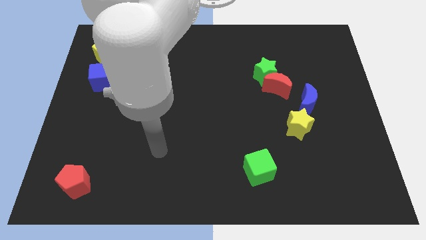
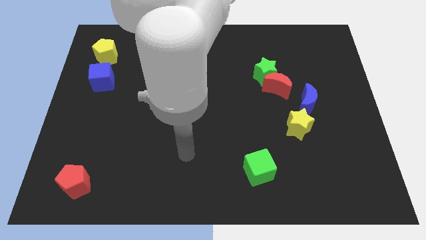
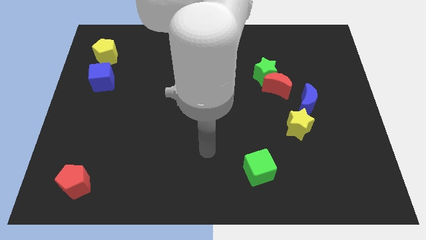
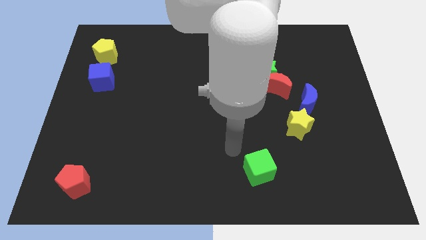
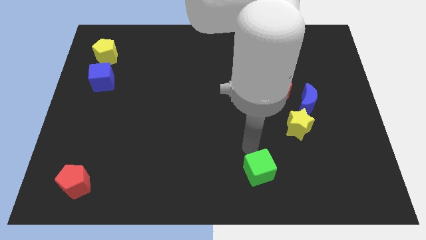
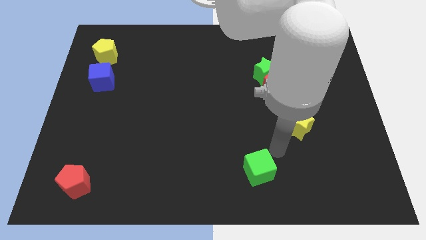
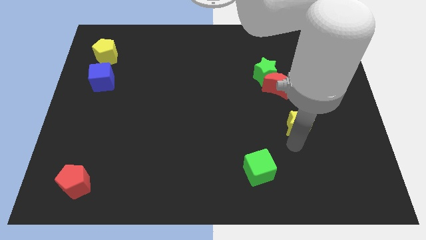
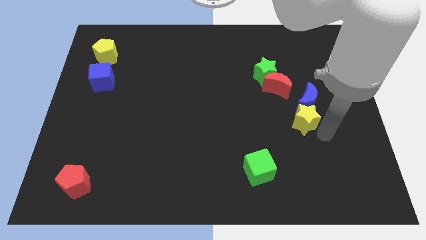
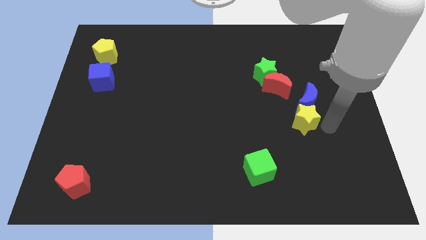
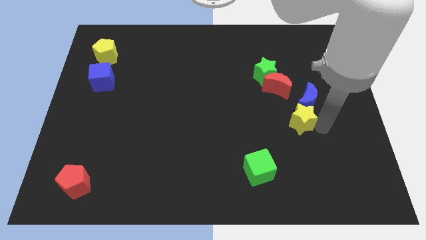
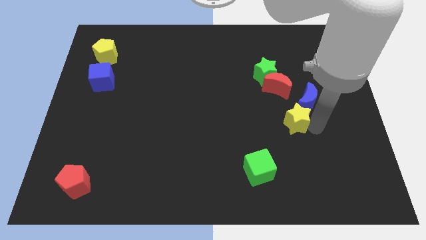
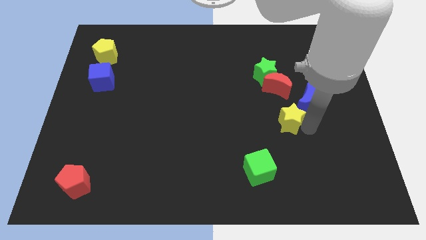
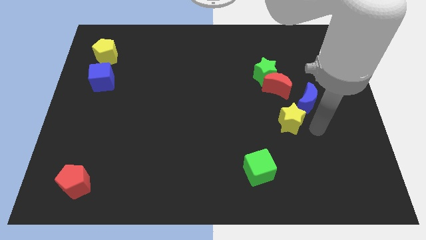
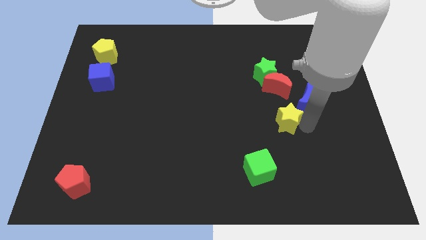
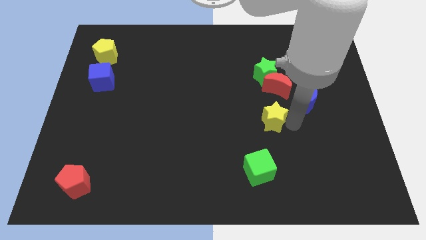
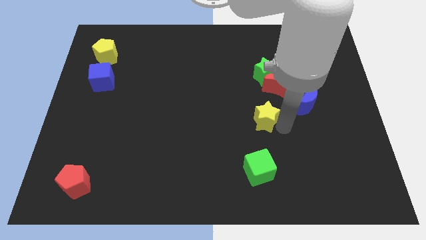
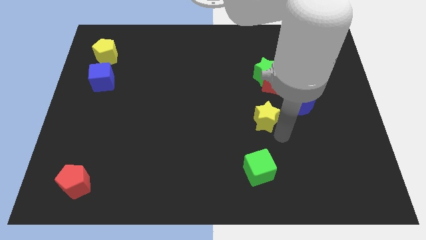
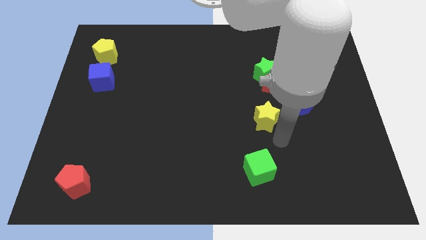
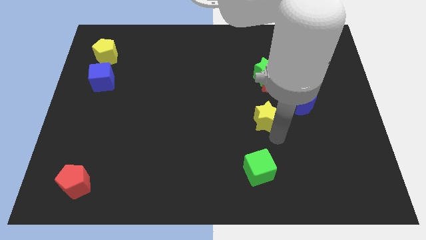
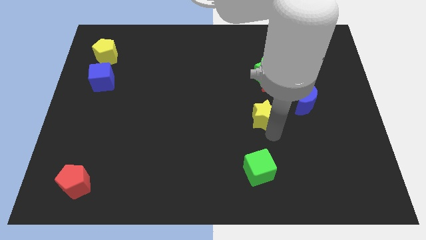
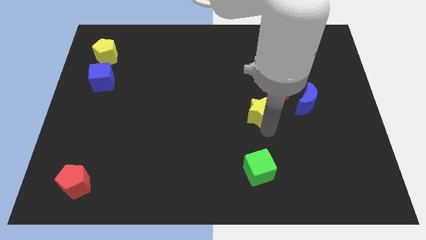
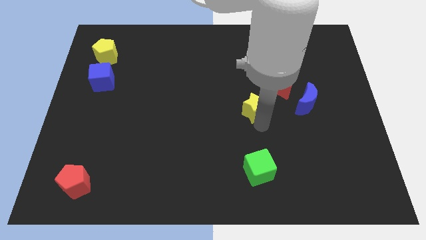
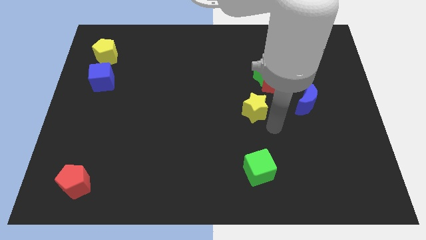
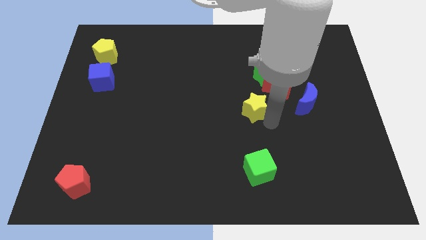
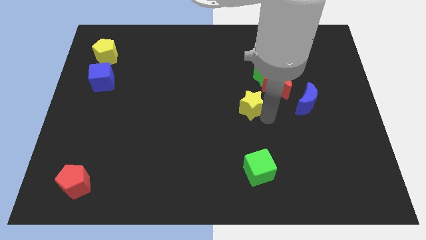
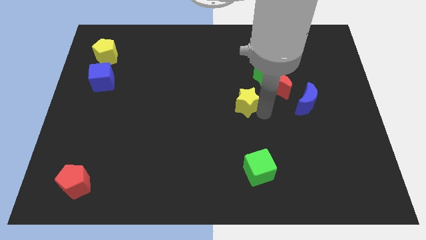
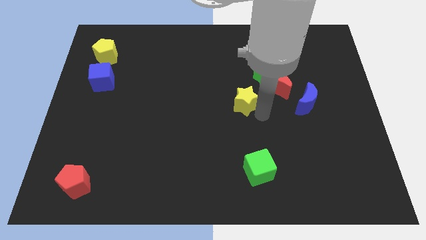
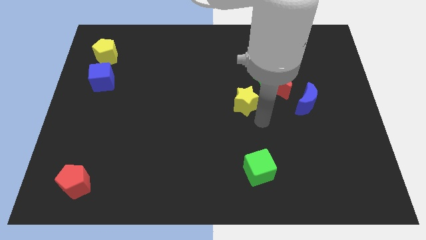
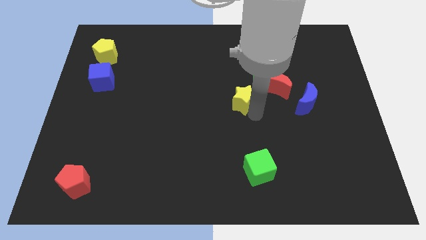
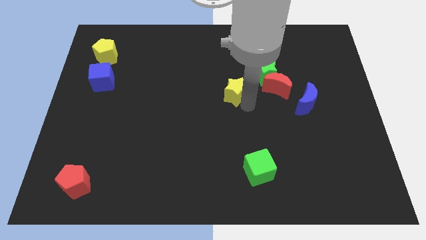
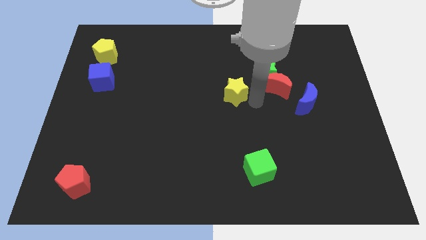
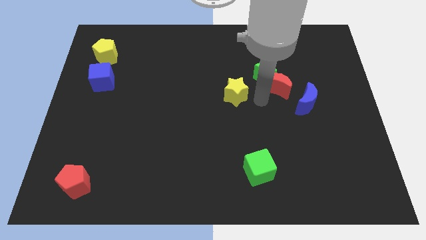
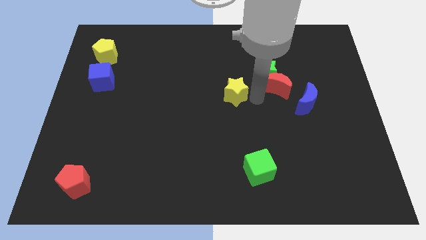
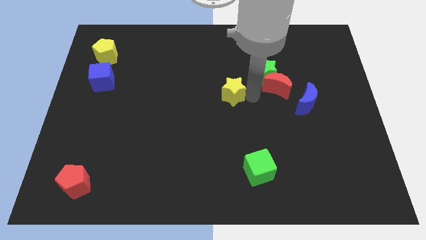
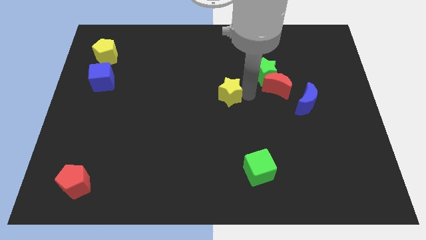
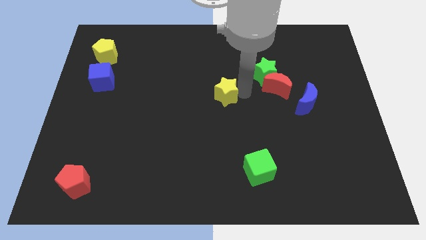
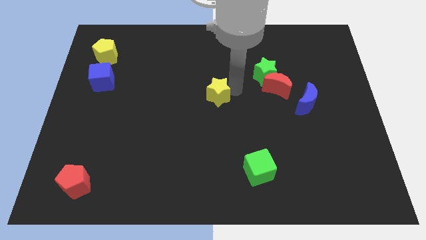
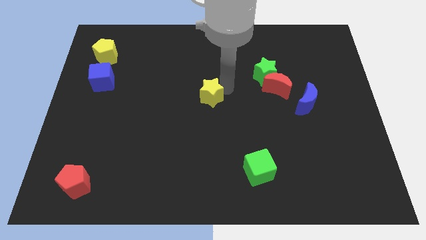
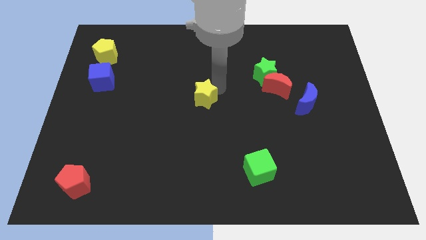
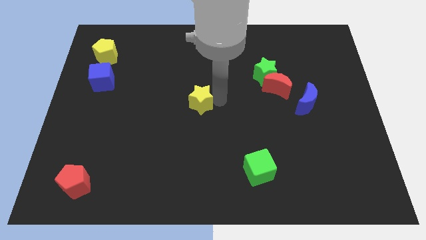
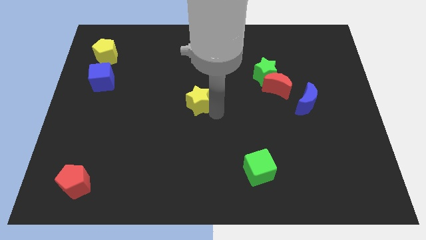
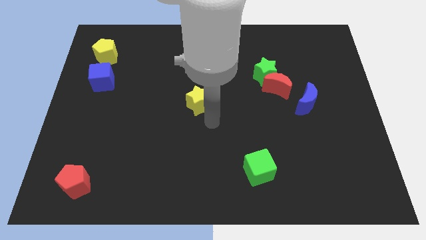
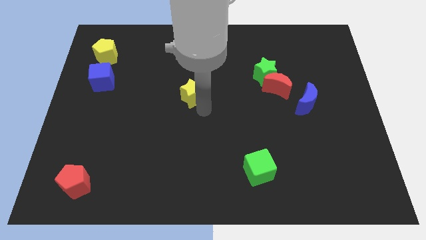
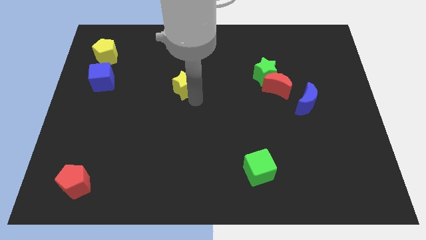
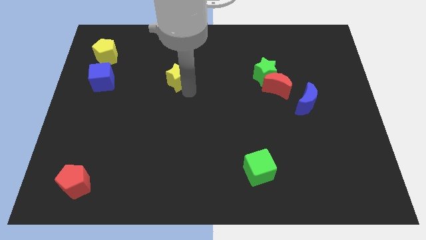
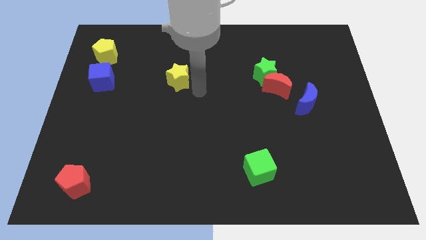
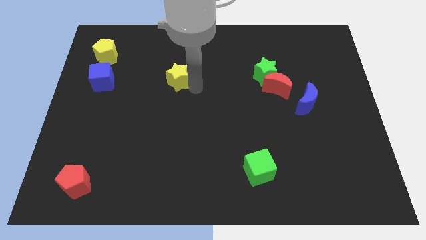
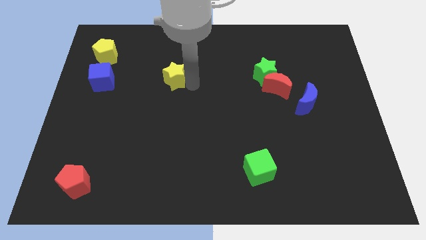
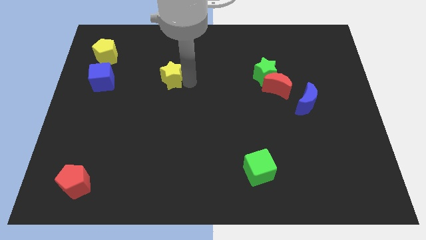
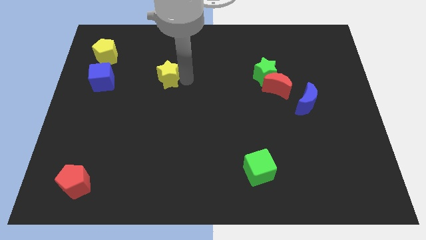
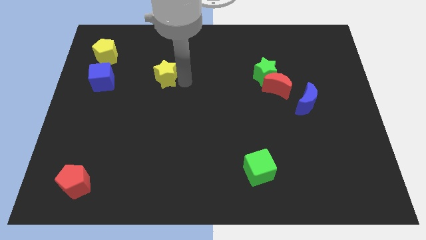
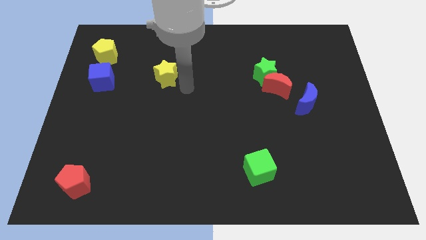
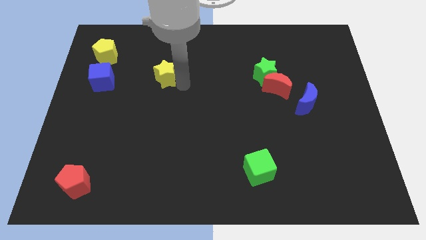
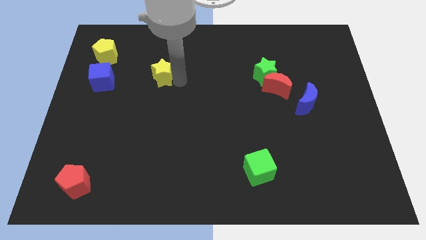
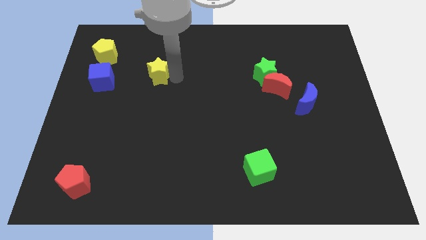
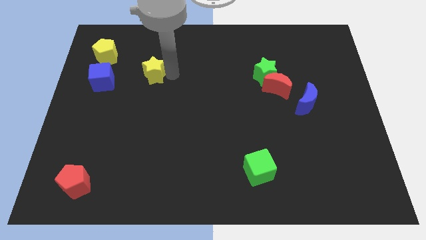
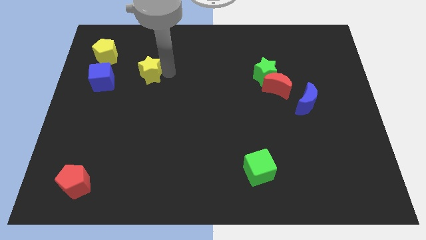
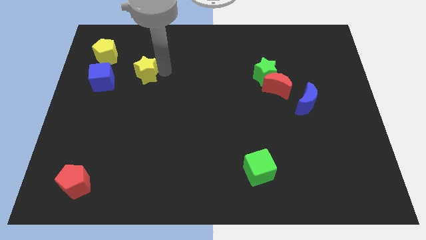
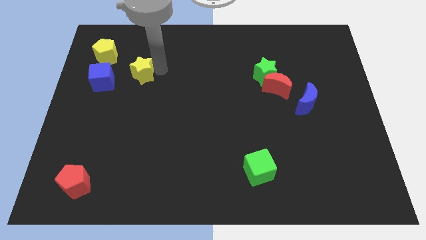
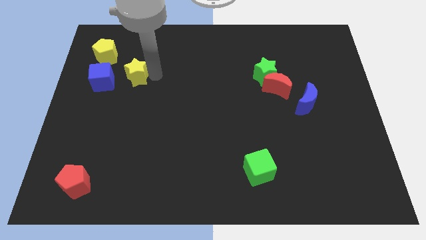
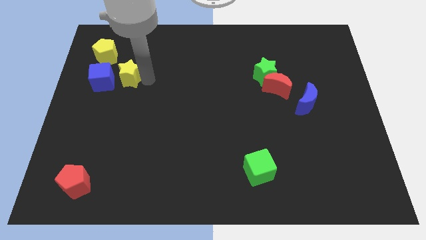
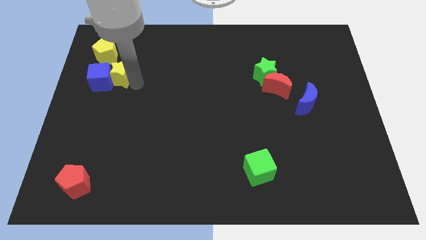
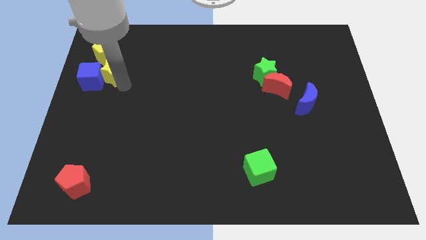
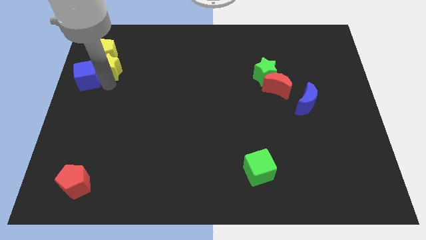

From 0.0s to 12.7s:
move the yellow star towards the yellow pentagon

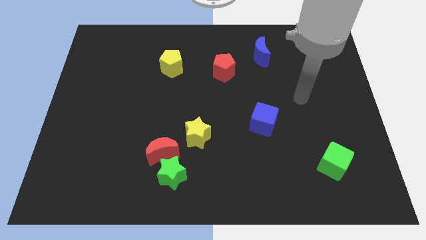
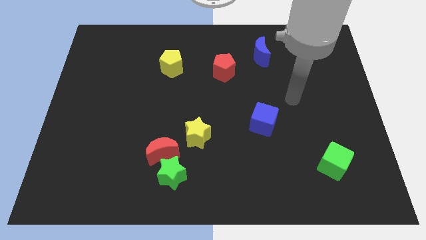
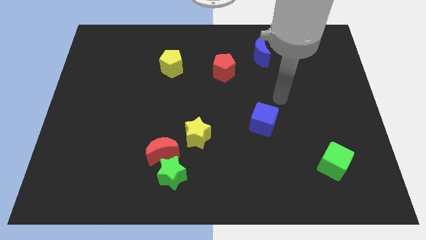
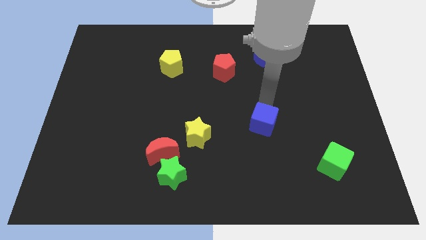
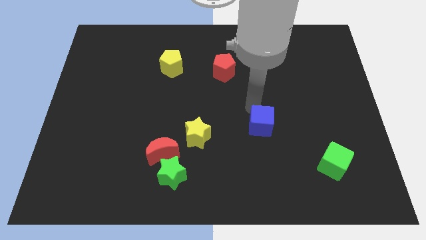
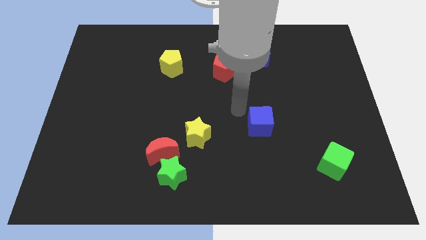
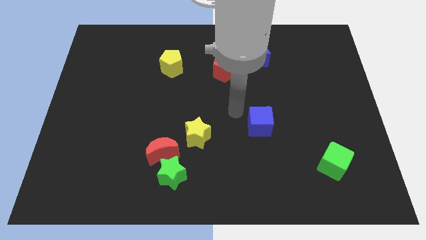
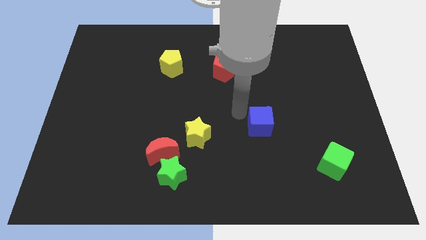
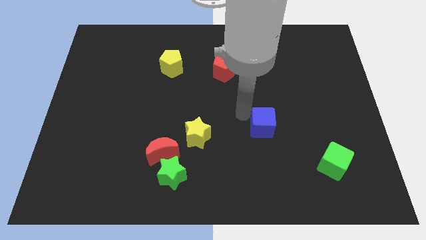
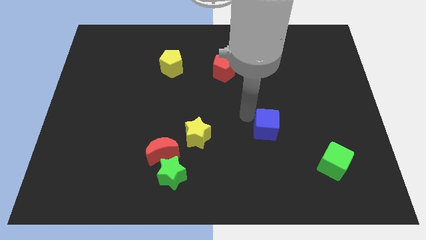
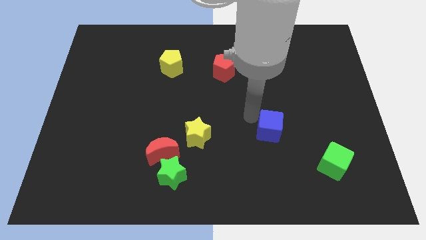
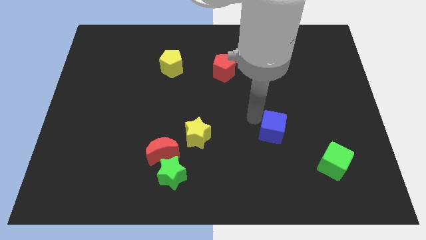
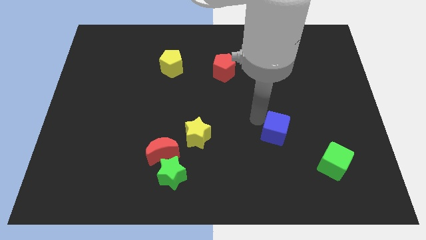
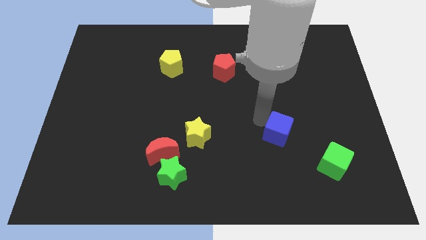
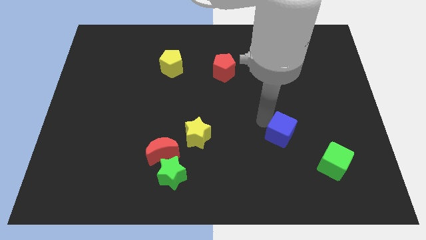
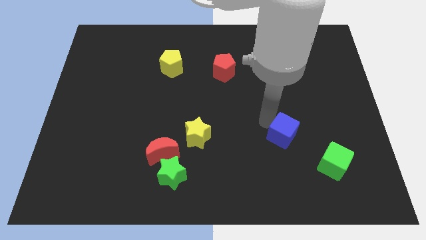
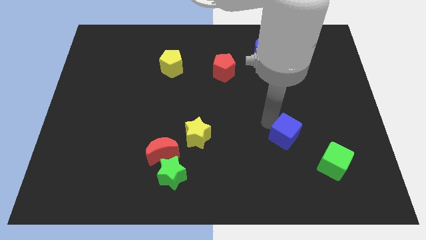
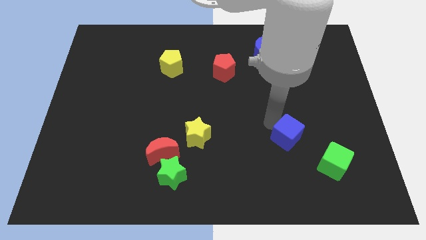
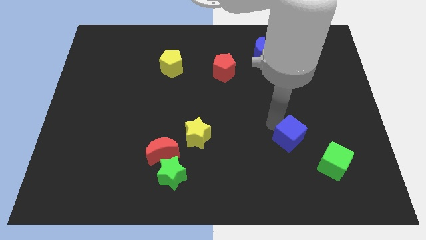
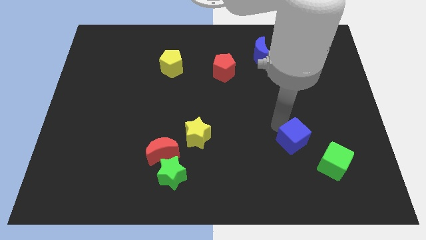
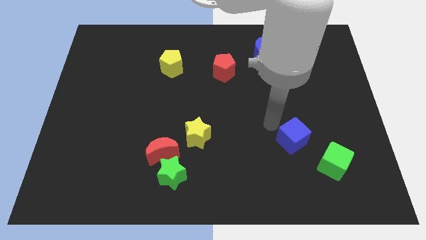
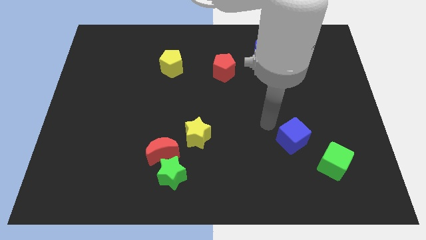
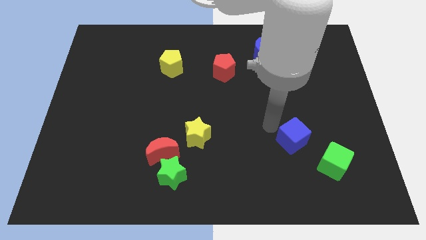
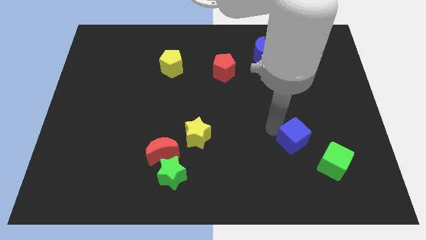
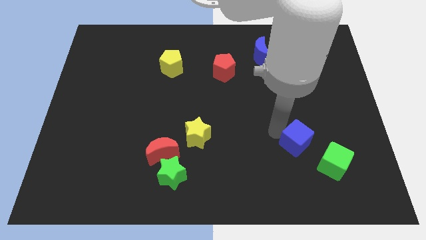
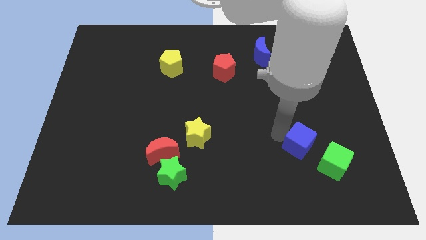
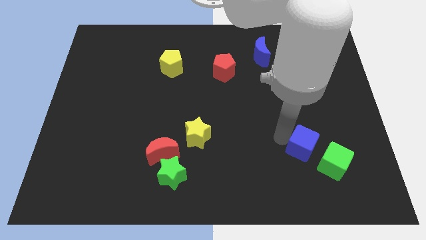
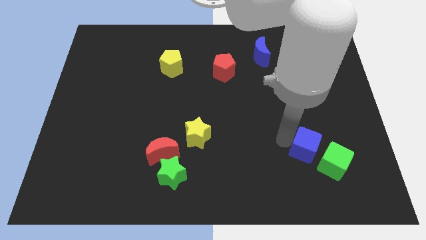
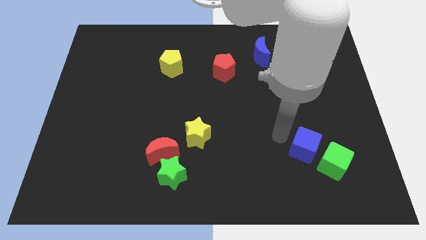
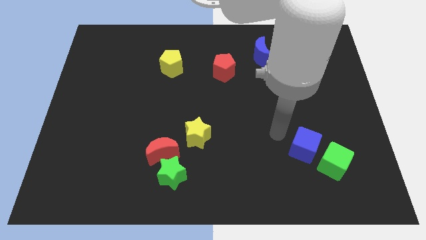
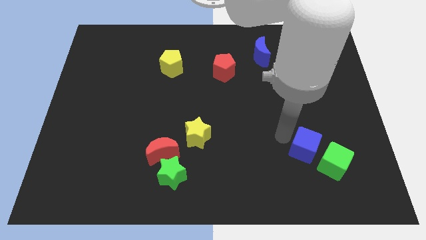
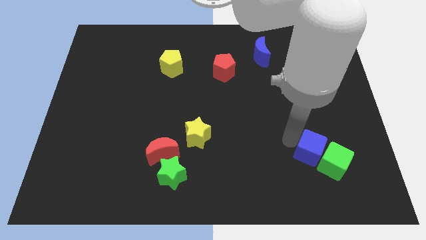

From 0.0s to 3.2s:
move the blue cube close to the green cube
